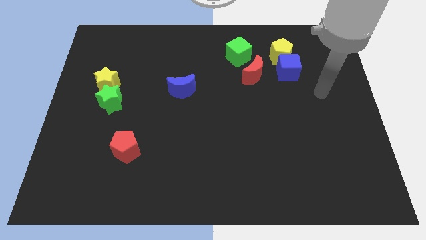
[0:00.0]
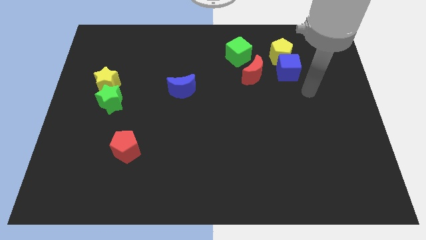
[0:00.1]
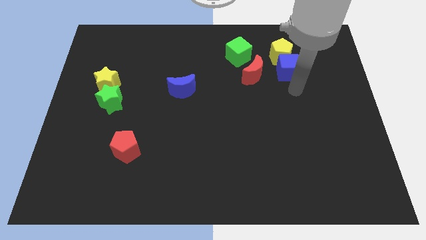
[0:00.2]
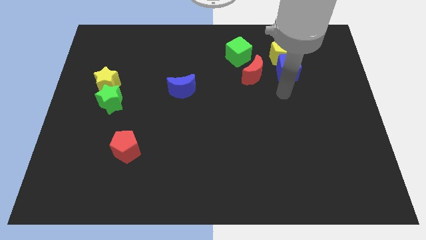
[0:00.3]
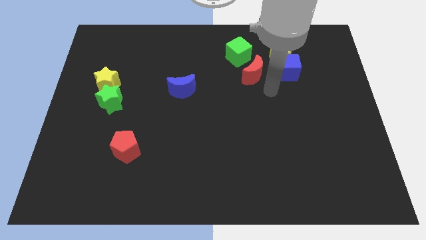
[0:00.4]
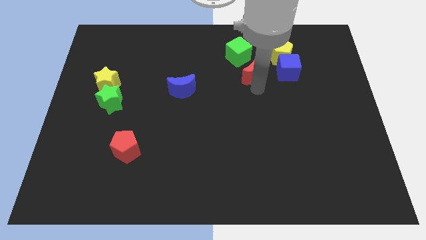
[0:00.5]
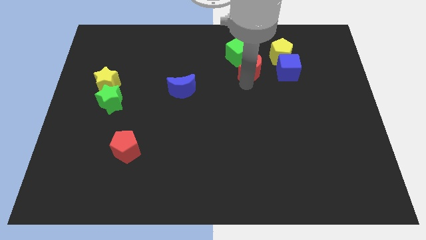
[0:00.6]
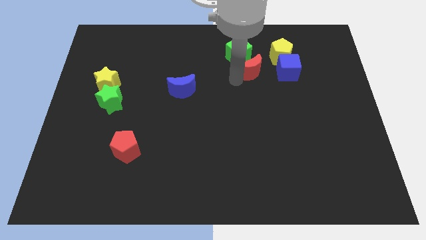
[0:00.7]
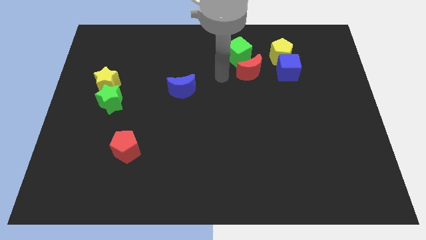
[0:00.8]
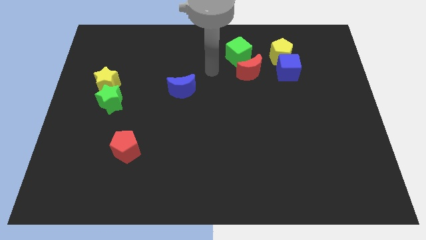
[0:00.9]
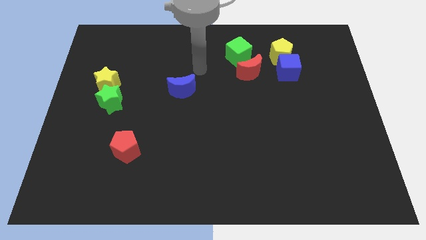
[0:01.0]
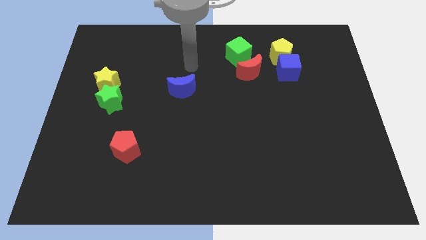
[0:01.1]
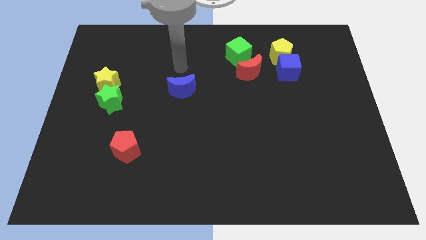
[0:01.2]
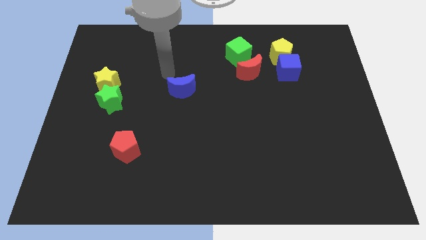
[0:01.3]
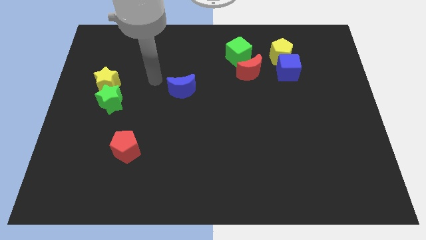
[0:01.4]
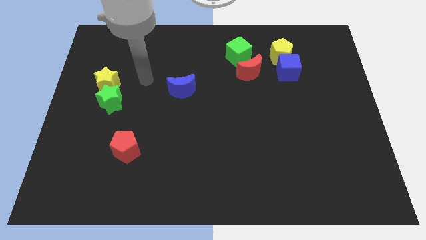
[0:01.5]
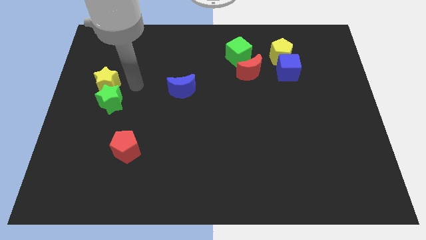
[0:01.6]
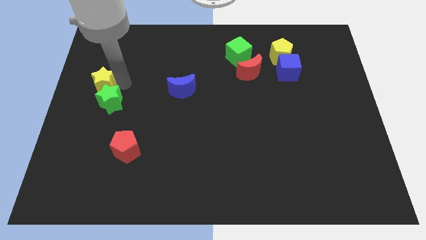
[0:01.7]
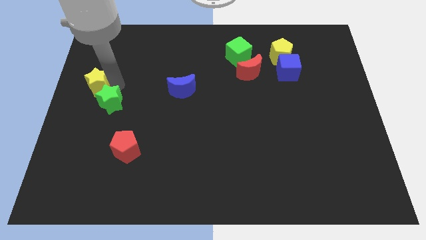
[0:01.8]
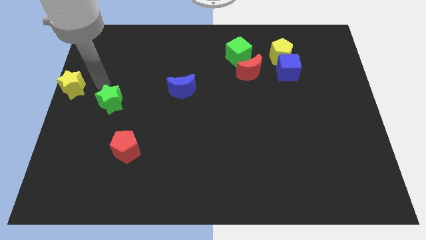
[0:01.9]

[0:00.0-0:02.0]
move the green star away from the yellow star

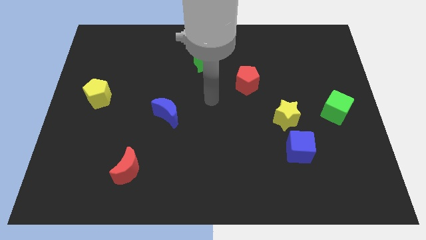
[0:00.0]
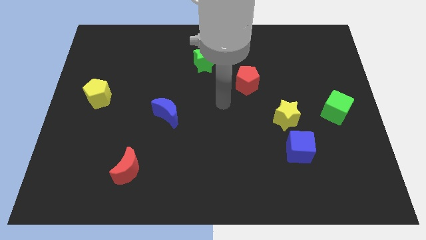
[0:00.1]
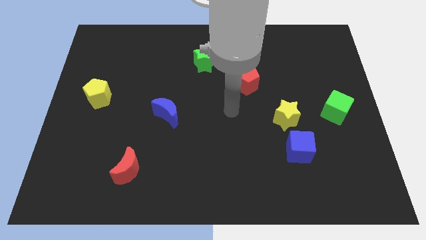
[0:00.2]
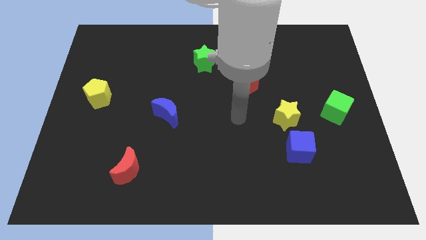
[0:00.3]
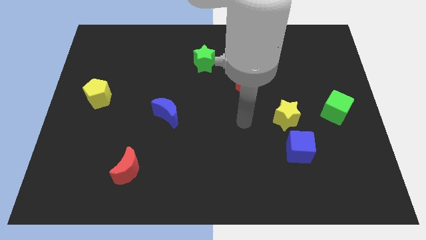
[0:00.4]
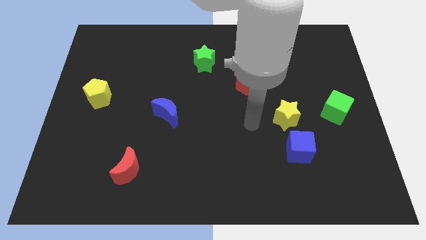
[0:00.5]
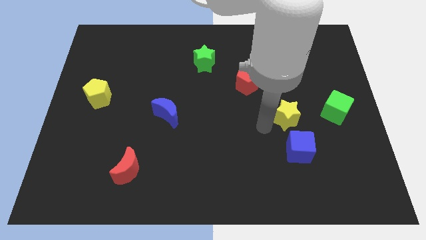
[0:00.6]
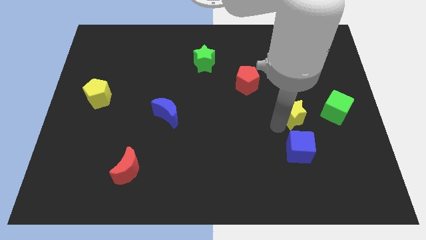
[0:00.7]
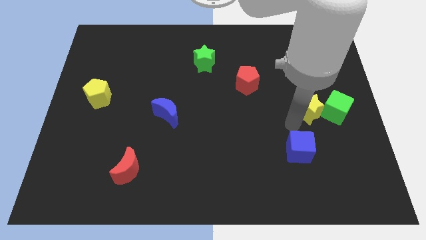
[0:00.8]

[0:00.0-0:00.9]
pull the blue cube apart from the yellow star

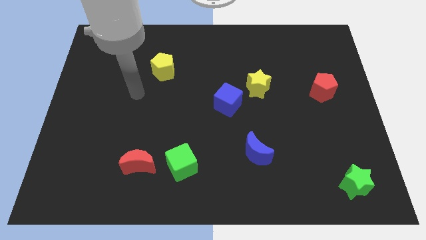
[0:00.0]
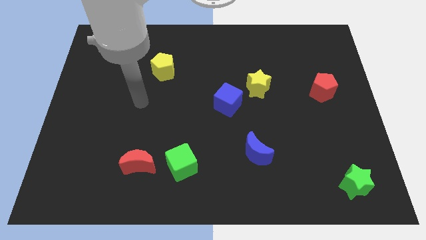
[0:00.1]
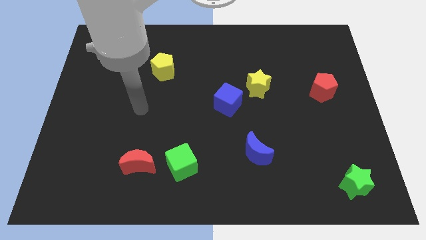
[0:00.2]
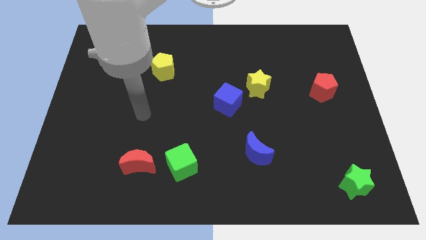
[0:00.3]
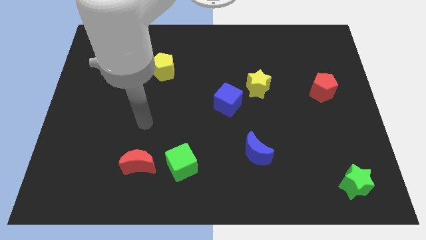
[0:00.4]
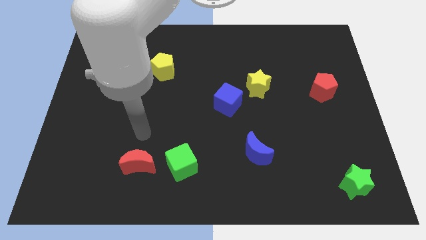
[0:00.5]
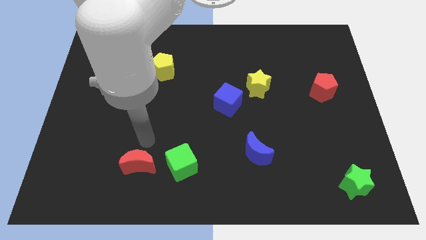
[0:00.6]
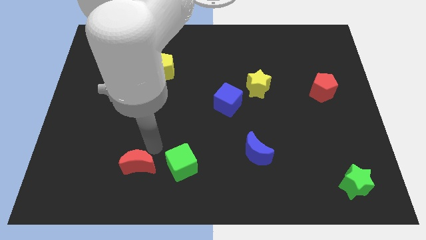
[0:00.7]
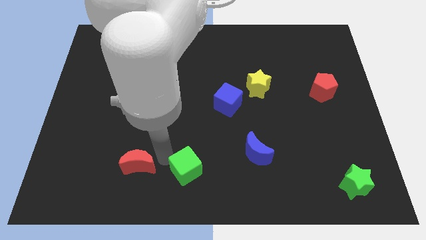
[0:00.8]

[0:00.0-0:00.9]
separate the red moon from the green cube

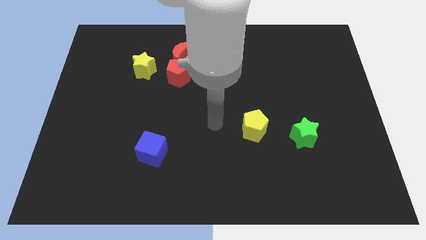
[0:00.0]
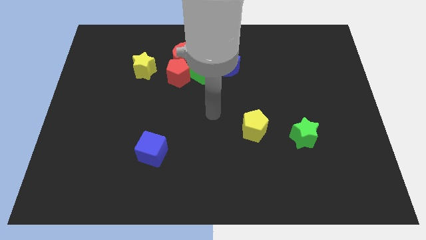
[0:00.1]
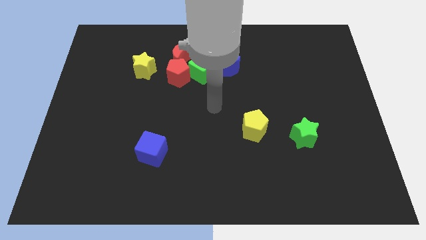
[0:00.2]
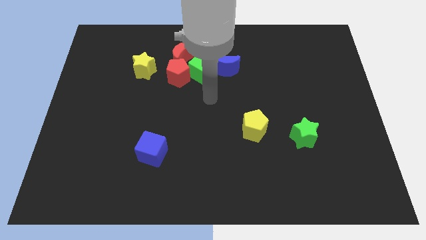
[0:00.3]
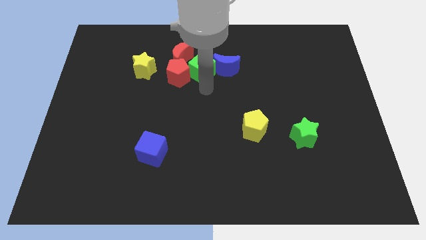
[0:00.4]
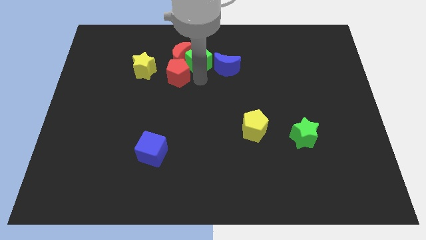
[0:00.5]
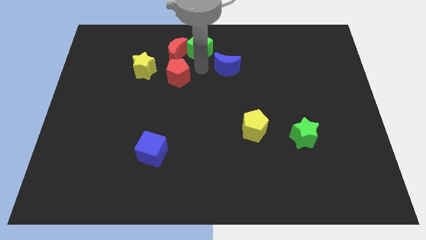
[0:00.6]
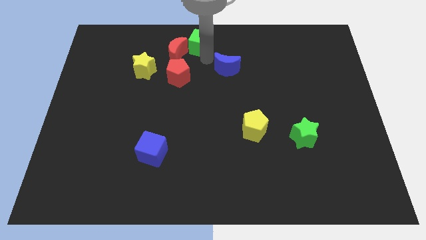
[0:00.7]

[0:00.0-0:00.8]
move the blue moon away from the green cube

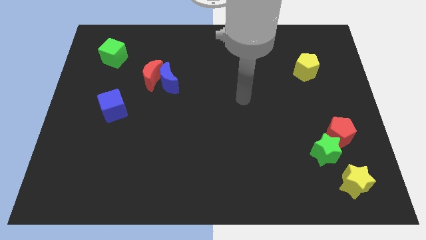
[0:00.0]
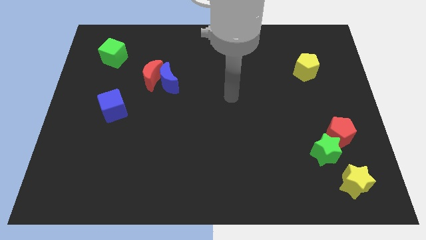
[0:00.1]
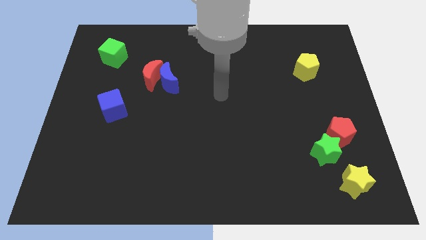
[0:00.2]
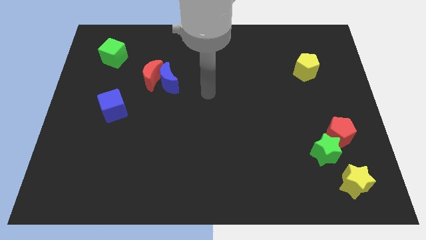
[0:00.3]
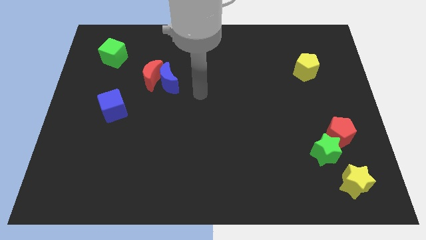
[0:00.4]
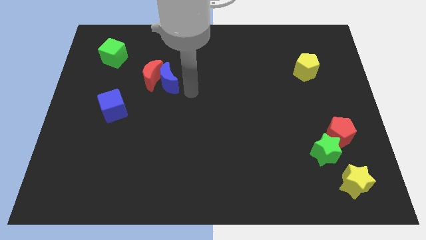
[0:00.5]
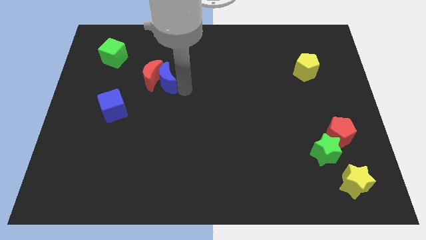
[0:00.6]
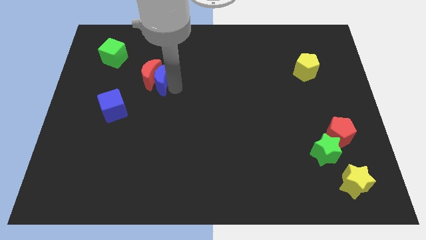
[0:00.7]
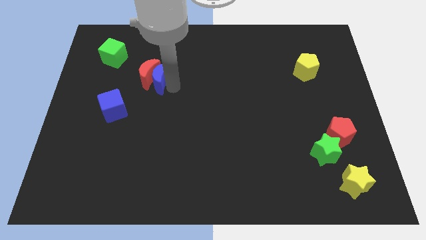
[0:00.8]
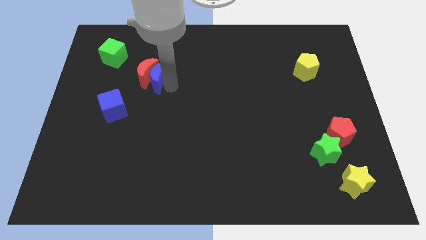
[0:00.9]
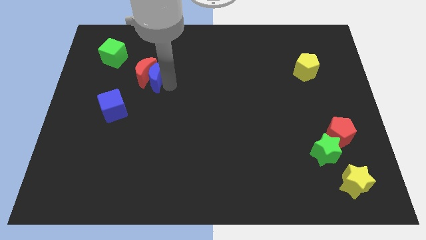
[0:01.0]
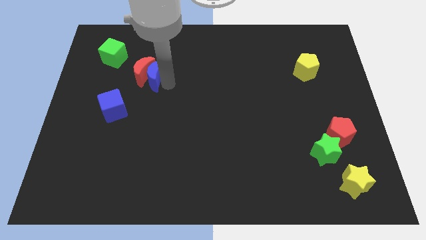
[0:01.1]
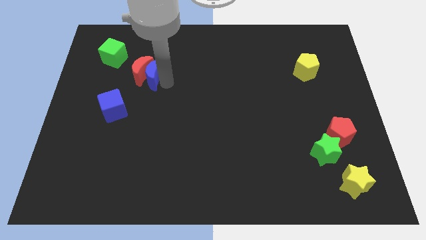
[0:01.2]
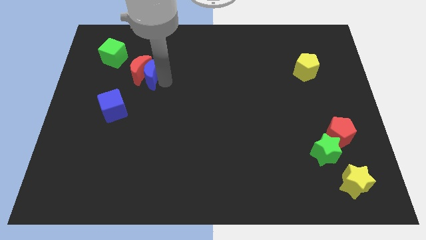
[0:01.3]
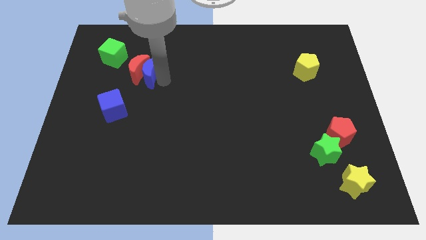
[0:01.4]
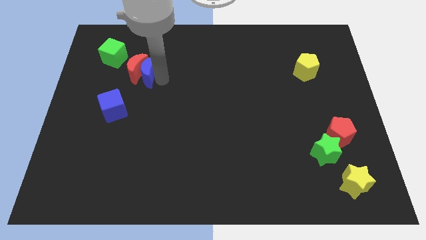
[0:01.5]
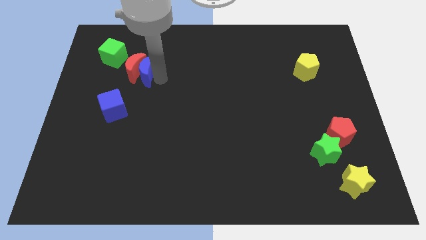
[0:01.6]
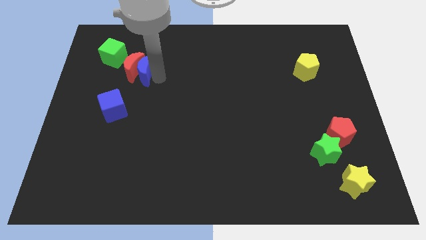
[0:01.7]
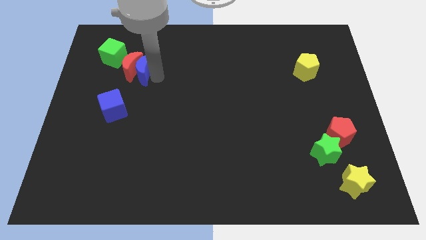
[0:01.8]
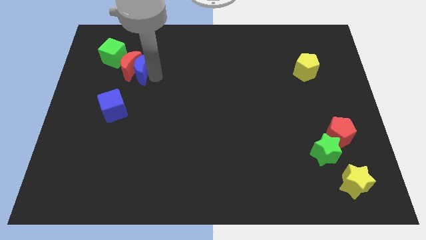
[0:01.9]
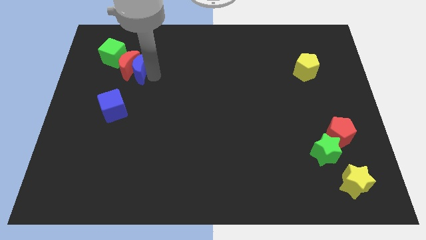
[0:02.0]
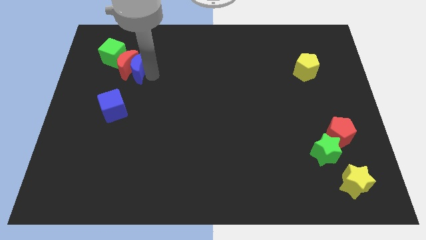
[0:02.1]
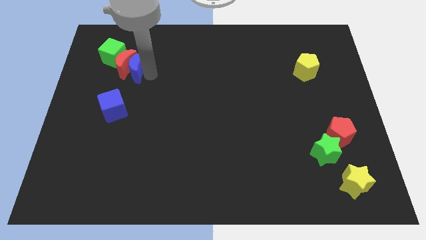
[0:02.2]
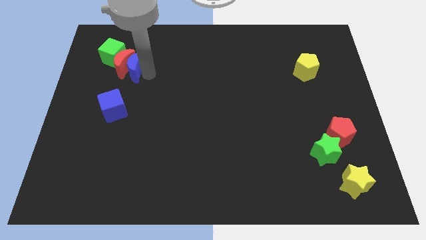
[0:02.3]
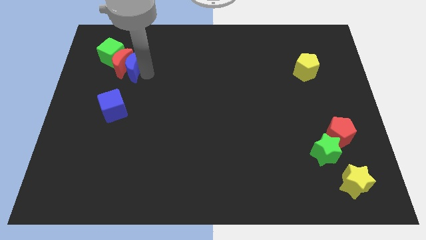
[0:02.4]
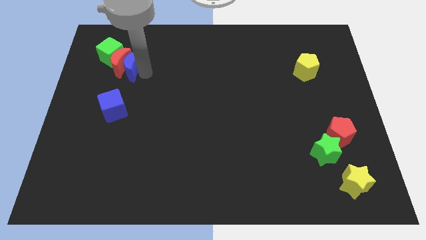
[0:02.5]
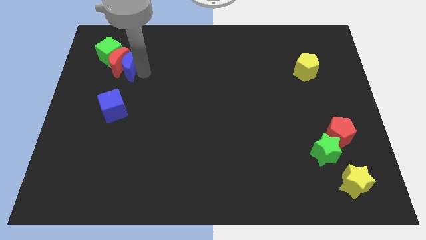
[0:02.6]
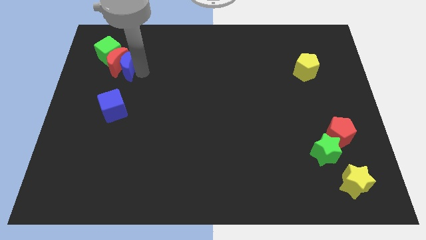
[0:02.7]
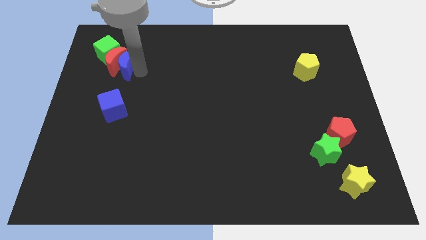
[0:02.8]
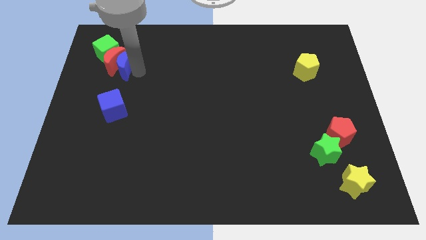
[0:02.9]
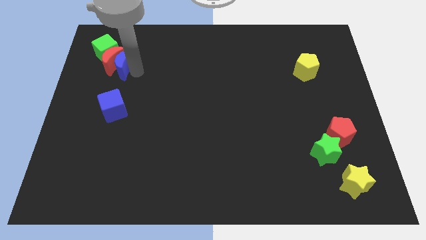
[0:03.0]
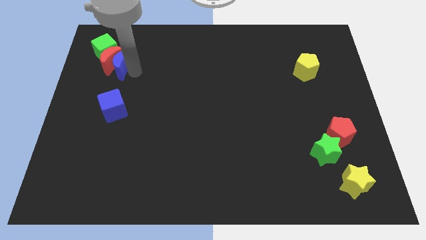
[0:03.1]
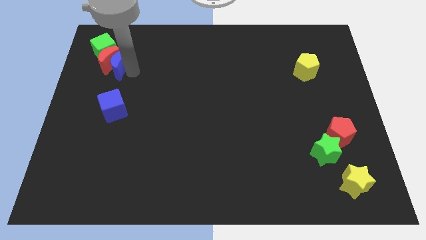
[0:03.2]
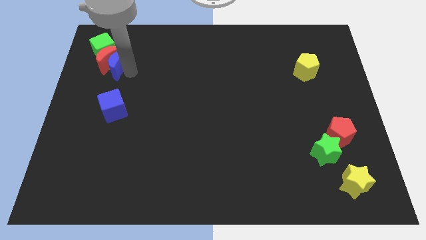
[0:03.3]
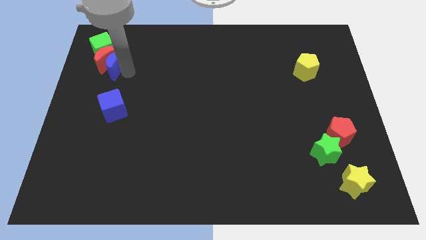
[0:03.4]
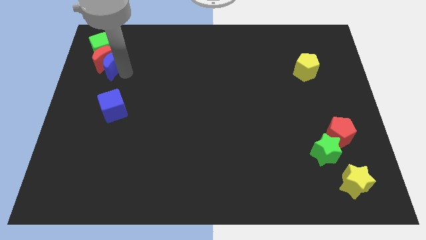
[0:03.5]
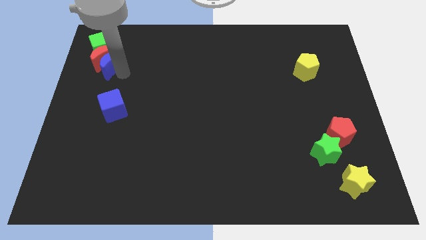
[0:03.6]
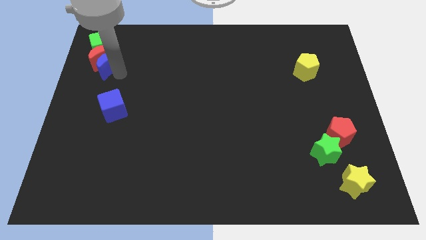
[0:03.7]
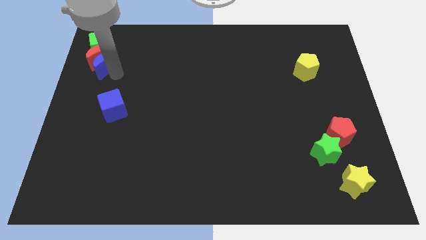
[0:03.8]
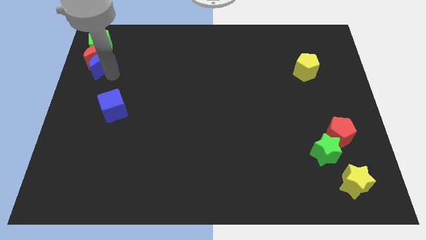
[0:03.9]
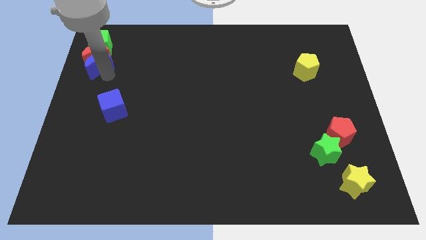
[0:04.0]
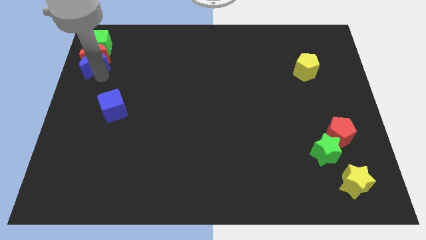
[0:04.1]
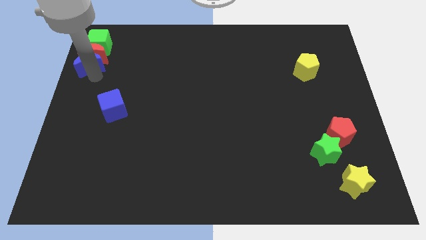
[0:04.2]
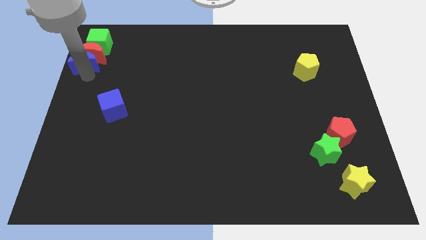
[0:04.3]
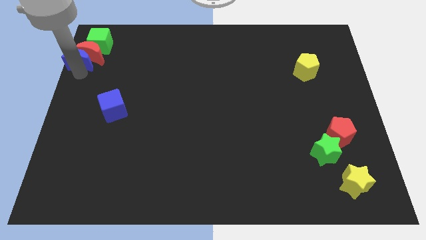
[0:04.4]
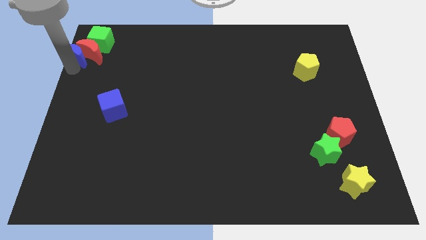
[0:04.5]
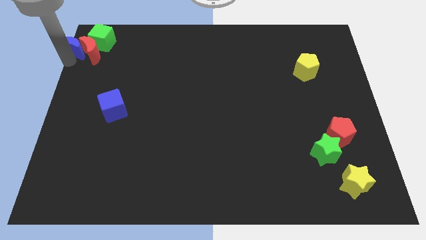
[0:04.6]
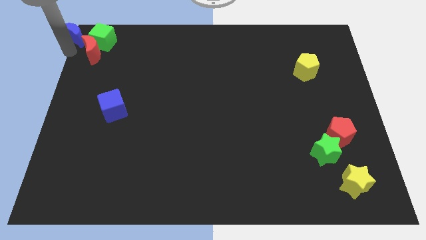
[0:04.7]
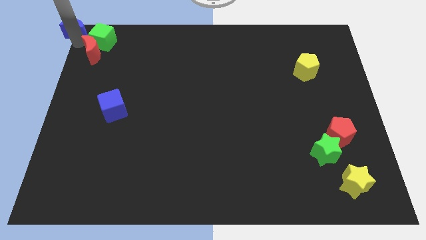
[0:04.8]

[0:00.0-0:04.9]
separate the red moon from the blue moon
